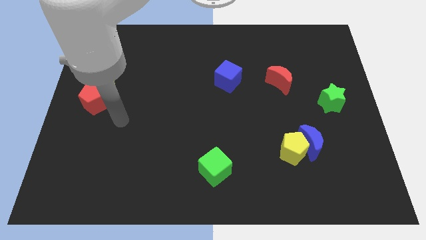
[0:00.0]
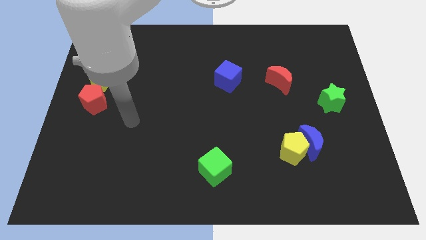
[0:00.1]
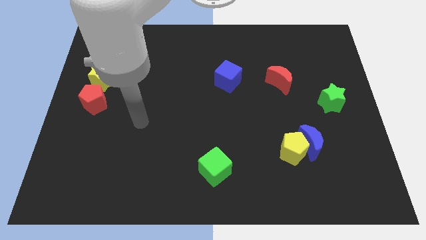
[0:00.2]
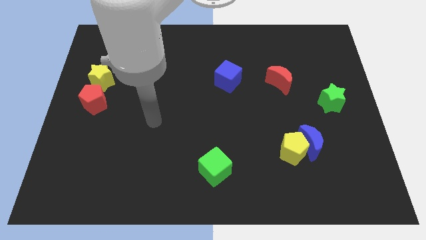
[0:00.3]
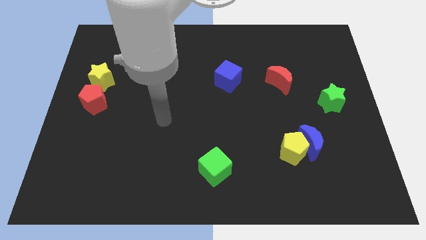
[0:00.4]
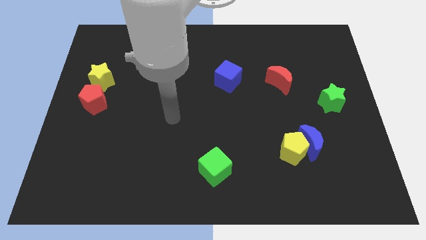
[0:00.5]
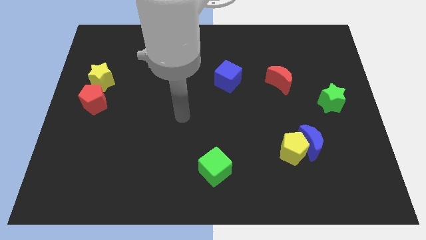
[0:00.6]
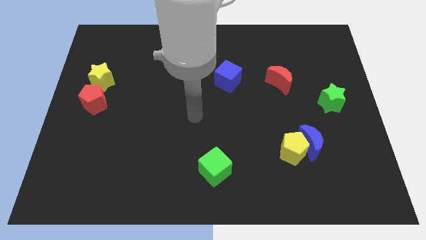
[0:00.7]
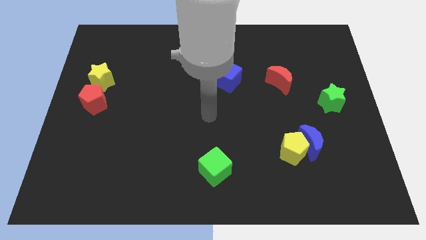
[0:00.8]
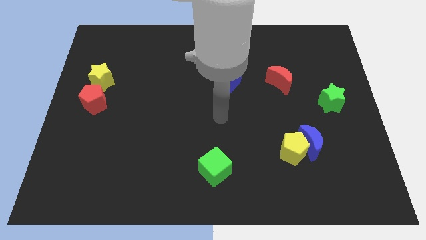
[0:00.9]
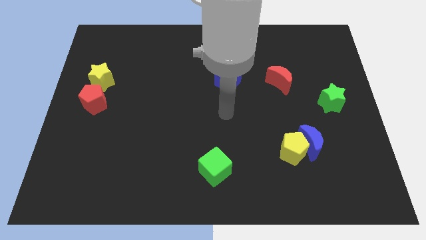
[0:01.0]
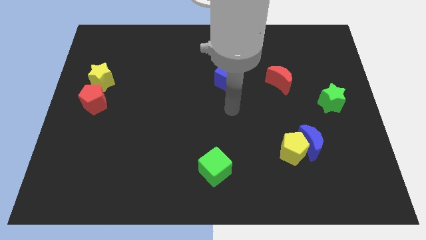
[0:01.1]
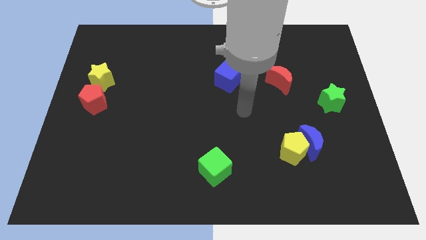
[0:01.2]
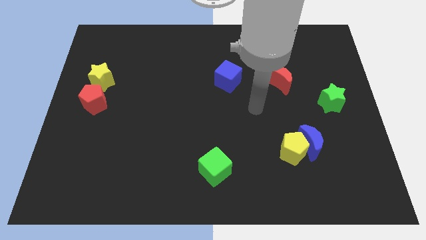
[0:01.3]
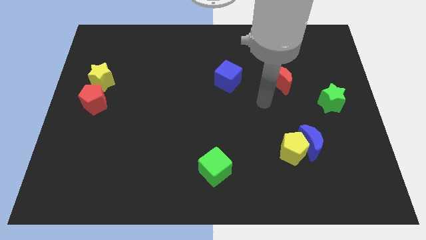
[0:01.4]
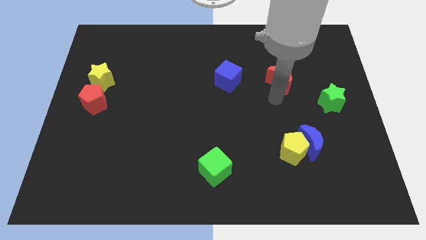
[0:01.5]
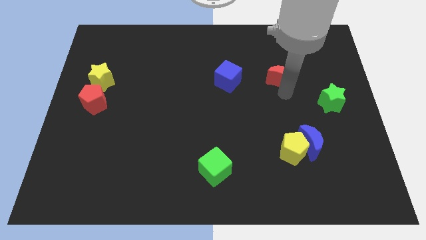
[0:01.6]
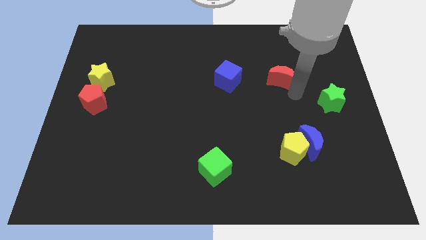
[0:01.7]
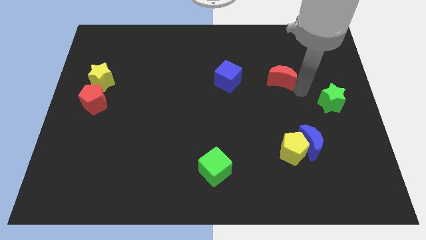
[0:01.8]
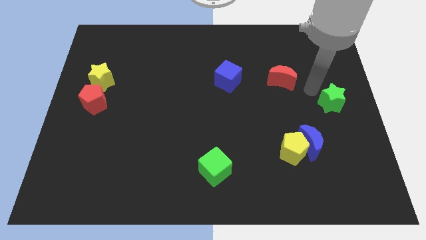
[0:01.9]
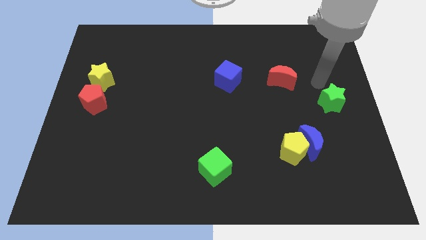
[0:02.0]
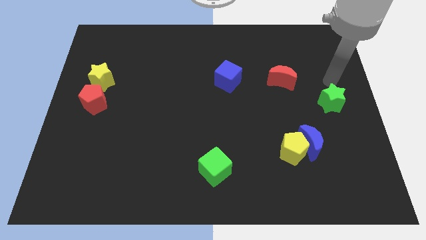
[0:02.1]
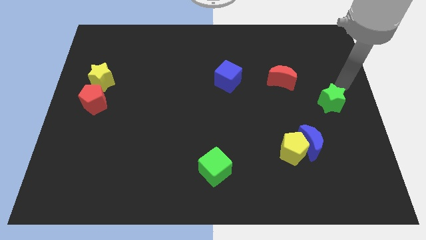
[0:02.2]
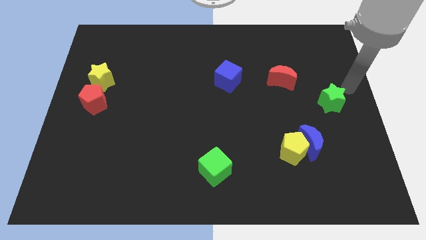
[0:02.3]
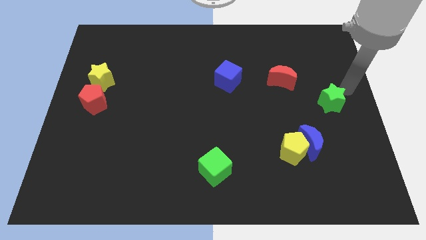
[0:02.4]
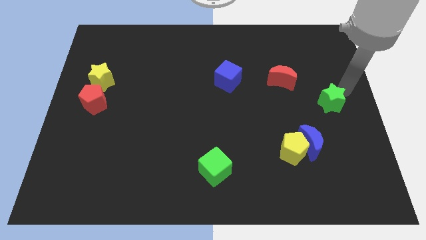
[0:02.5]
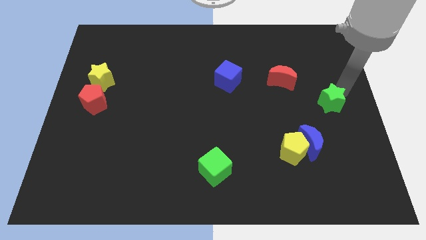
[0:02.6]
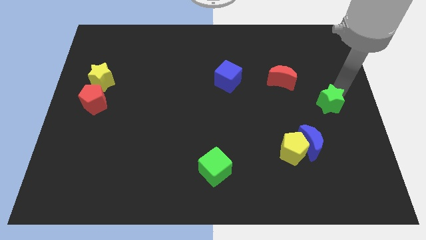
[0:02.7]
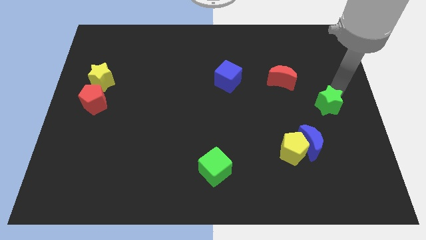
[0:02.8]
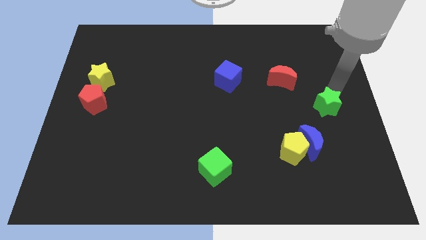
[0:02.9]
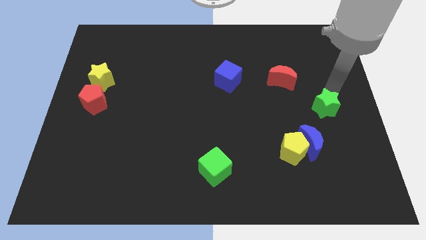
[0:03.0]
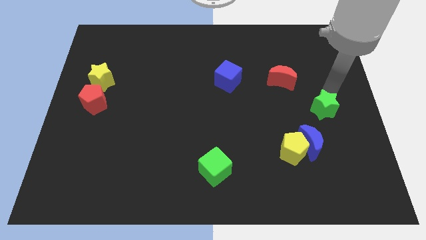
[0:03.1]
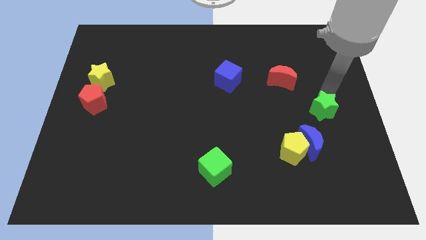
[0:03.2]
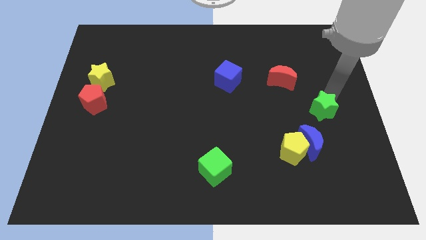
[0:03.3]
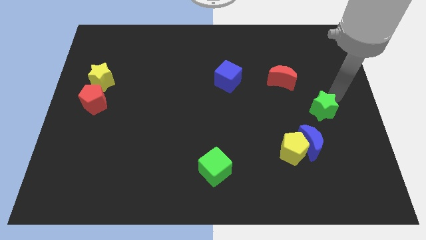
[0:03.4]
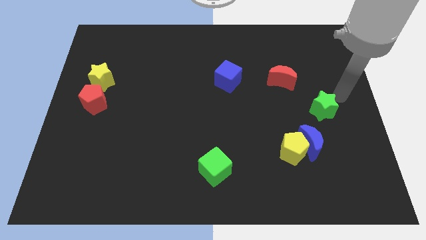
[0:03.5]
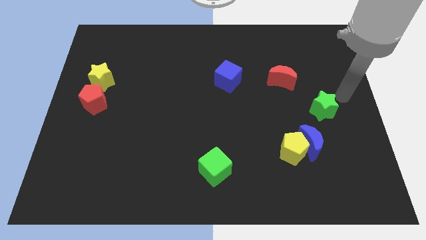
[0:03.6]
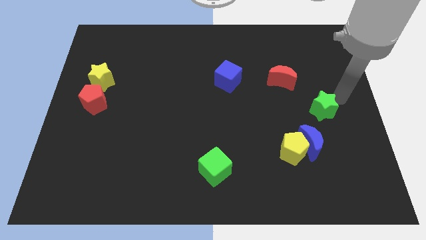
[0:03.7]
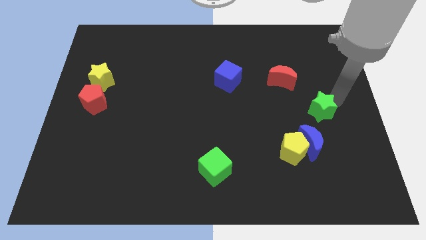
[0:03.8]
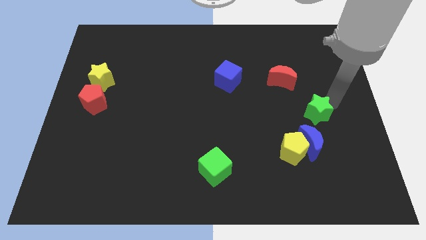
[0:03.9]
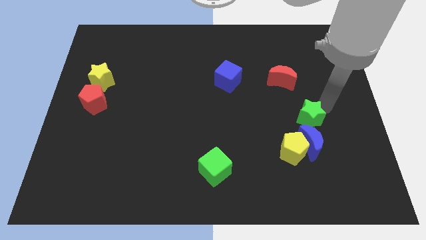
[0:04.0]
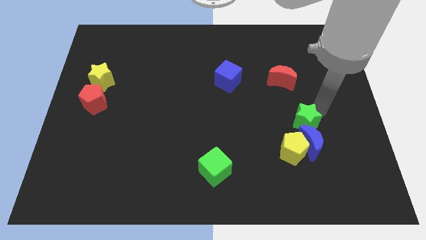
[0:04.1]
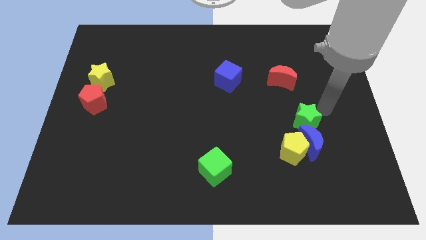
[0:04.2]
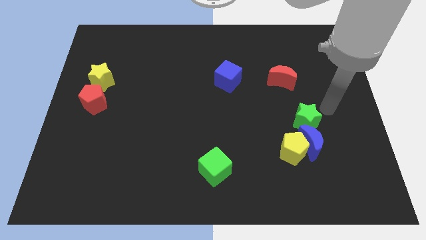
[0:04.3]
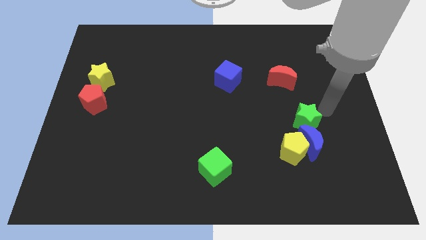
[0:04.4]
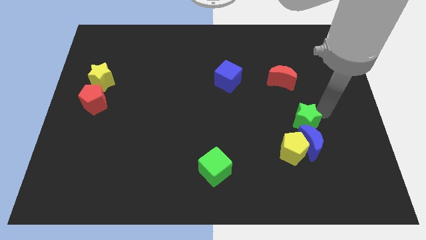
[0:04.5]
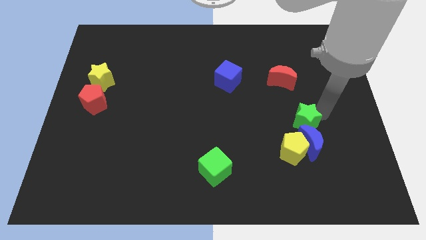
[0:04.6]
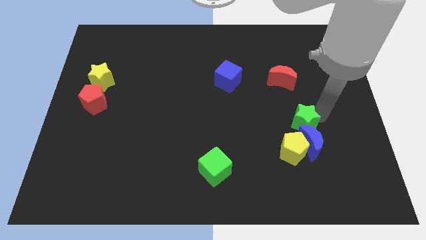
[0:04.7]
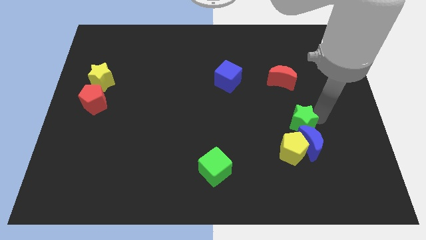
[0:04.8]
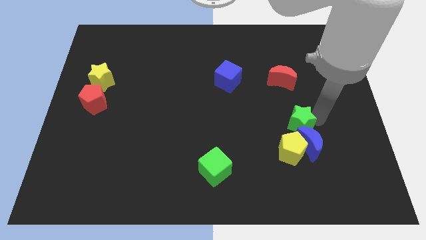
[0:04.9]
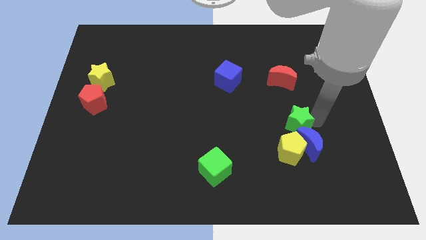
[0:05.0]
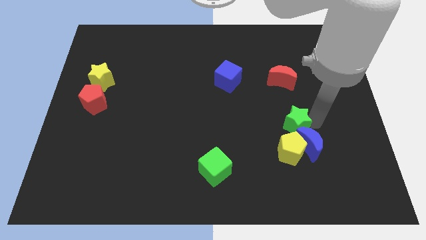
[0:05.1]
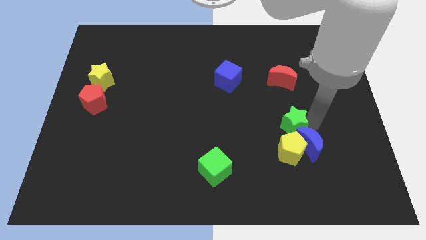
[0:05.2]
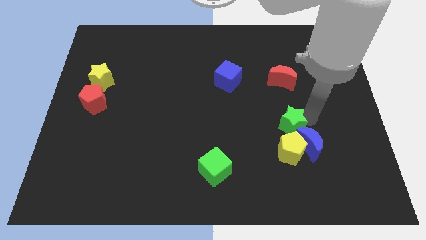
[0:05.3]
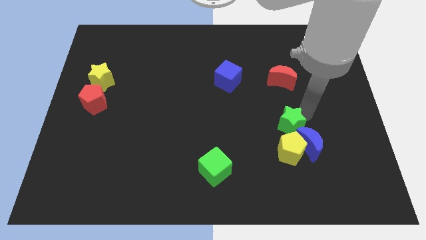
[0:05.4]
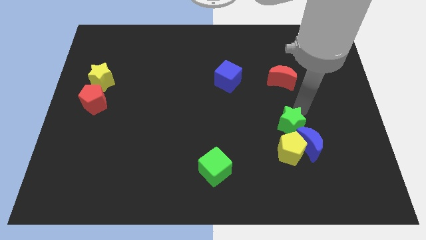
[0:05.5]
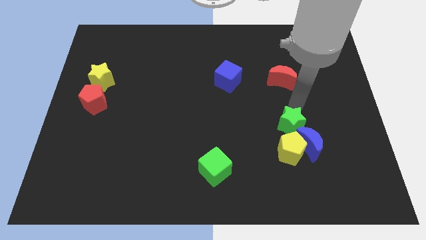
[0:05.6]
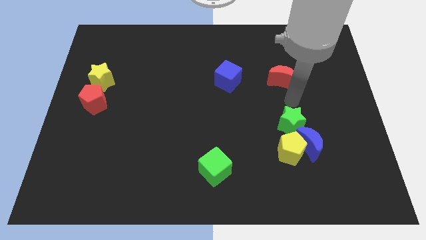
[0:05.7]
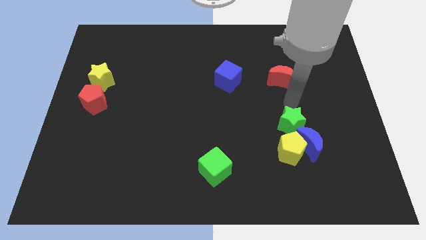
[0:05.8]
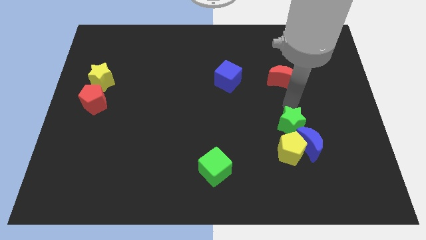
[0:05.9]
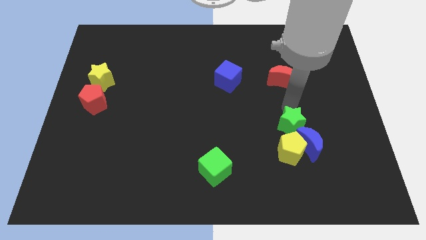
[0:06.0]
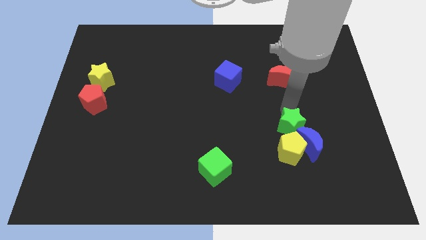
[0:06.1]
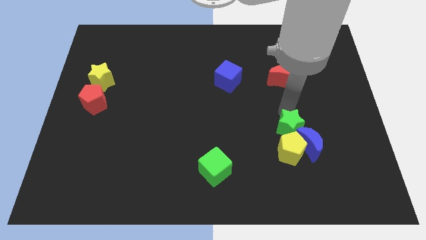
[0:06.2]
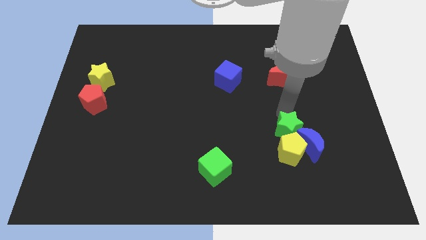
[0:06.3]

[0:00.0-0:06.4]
push the green star close to the yellow pentagon
